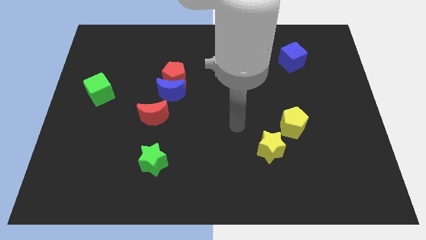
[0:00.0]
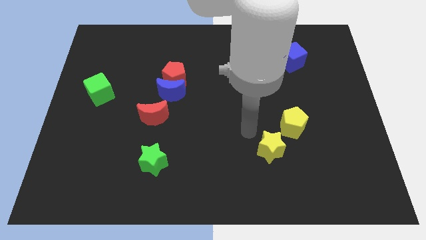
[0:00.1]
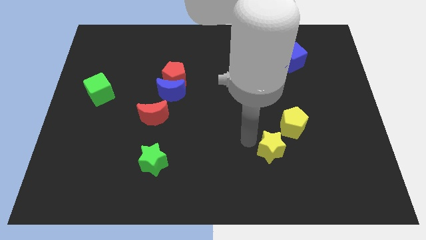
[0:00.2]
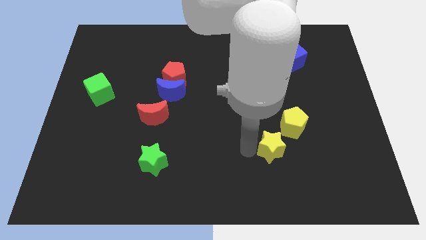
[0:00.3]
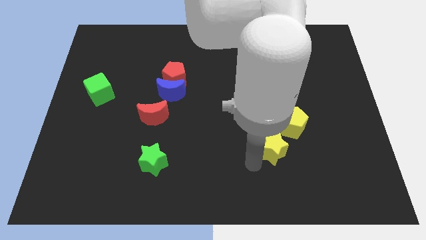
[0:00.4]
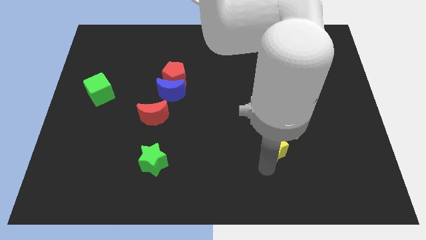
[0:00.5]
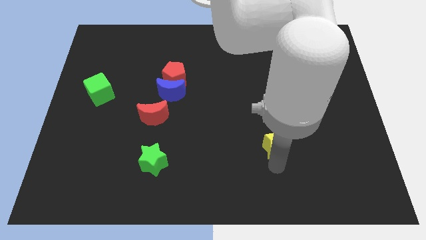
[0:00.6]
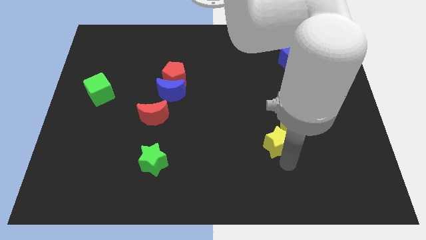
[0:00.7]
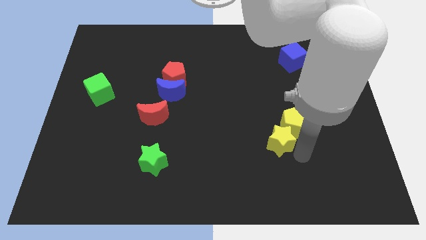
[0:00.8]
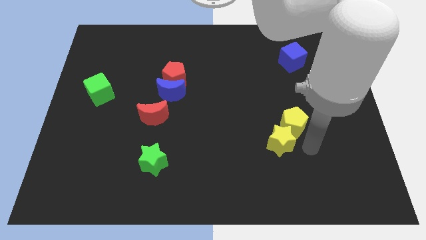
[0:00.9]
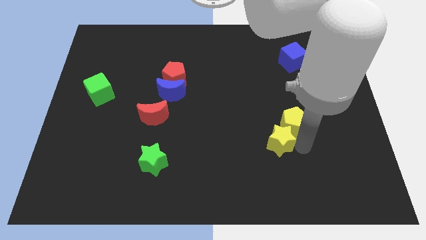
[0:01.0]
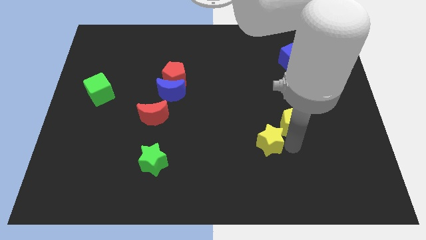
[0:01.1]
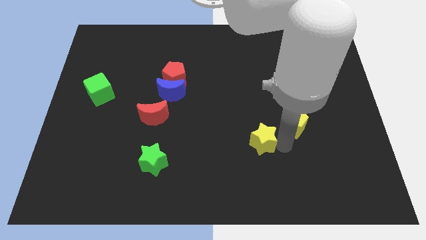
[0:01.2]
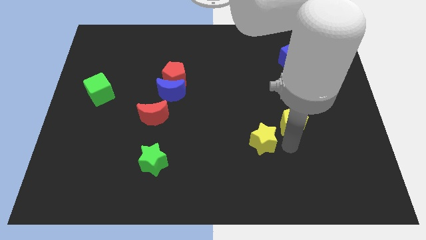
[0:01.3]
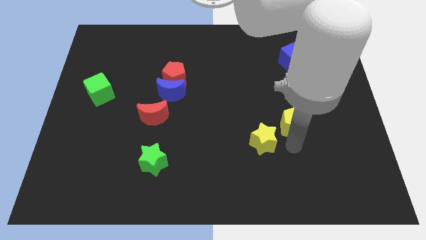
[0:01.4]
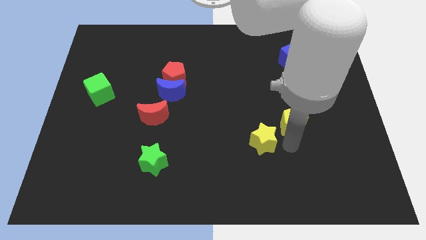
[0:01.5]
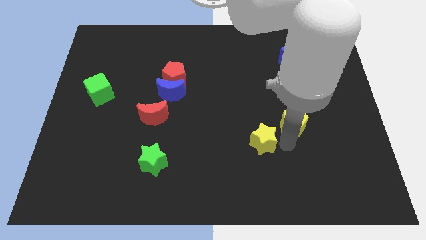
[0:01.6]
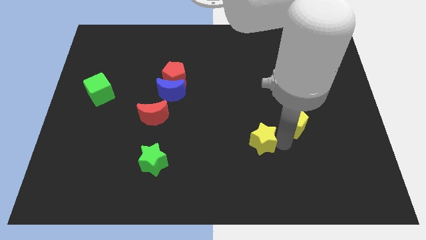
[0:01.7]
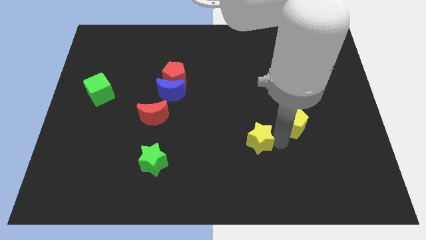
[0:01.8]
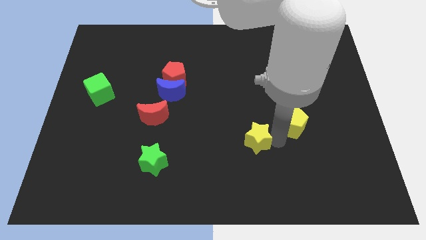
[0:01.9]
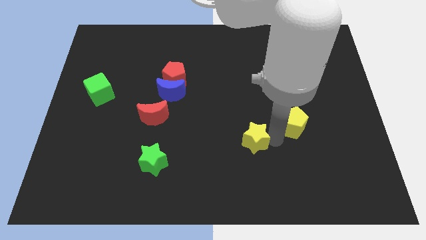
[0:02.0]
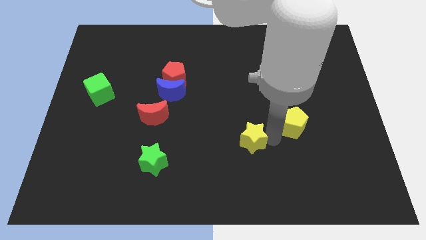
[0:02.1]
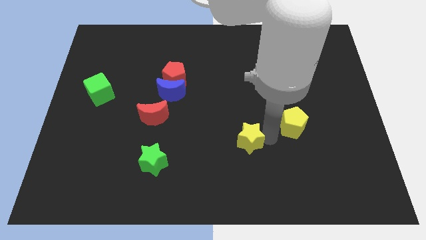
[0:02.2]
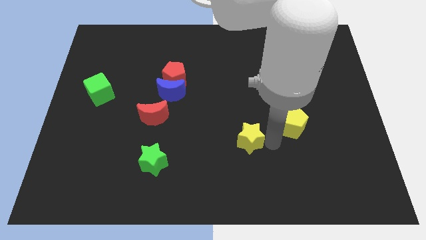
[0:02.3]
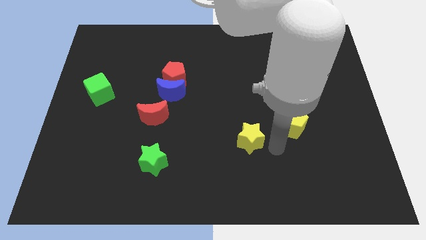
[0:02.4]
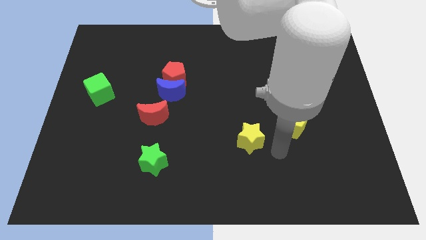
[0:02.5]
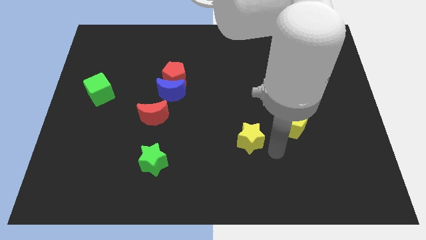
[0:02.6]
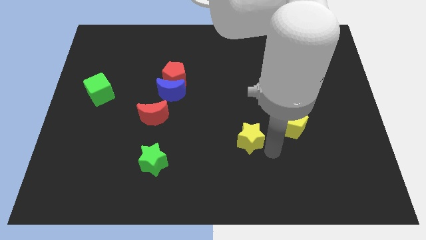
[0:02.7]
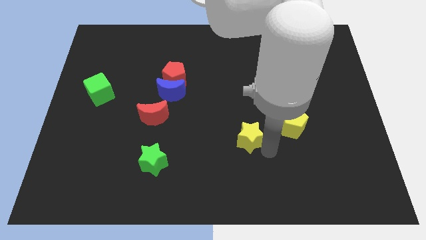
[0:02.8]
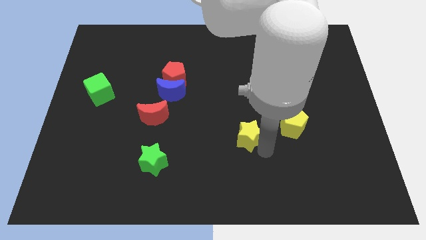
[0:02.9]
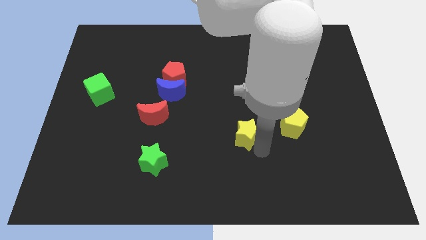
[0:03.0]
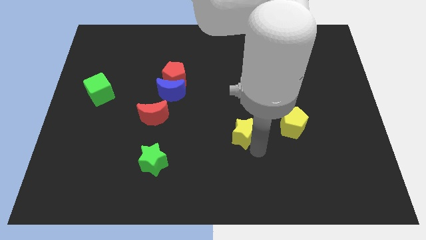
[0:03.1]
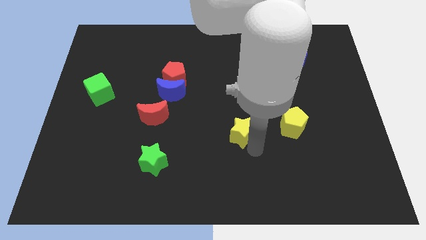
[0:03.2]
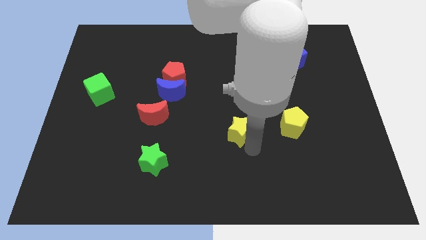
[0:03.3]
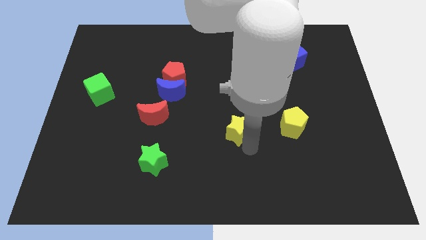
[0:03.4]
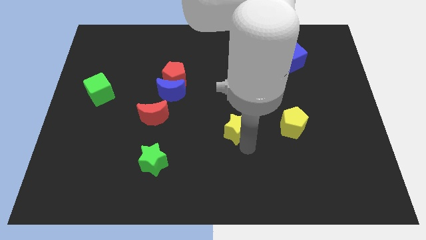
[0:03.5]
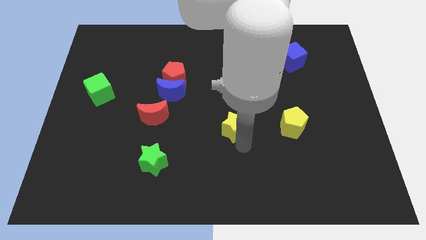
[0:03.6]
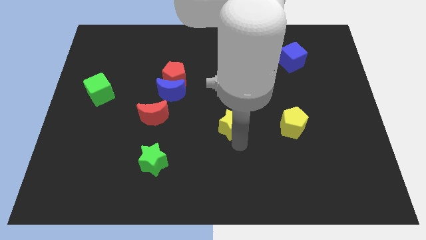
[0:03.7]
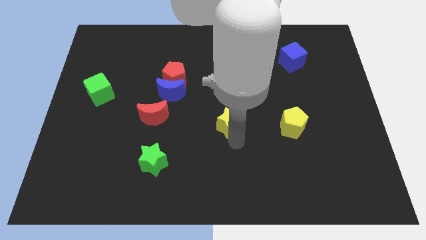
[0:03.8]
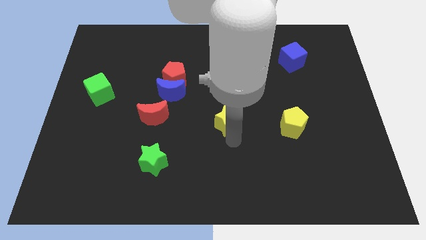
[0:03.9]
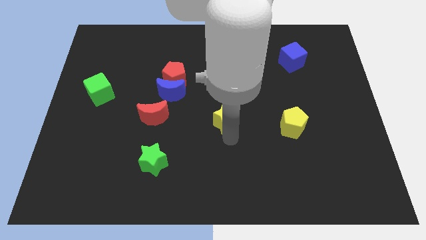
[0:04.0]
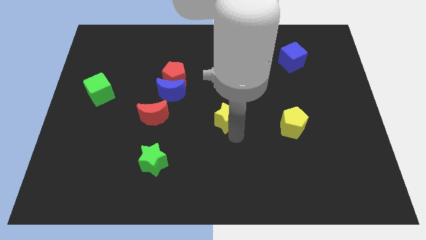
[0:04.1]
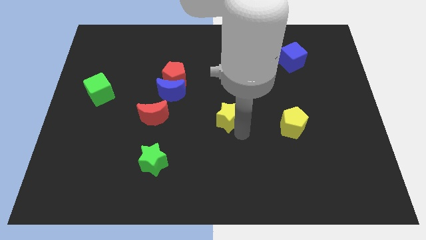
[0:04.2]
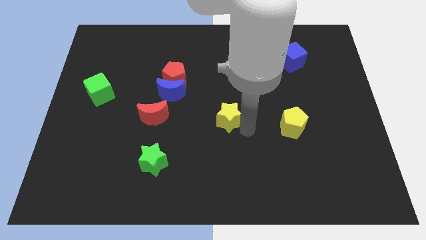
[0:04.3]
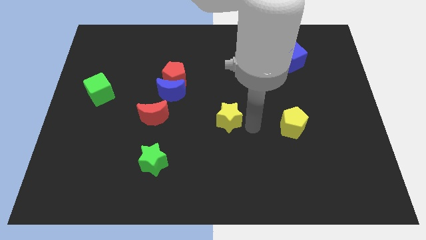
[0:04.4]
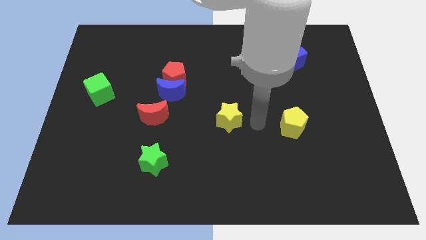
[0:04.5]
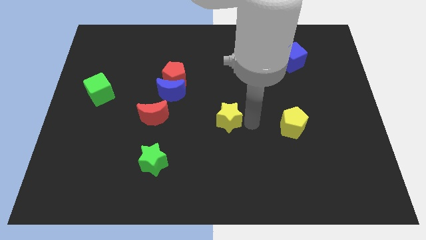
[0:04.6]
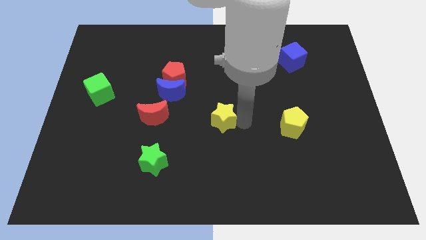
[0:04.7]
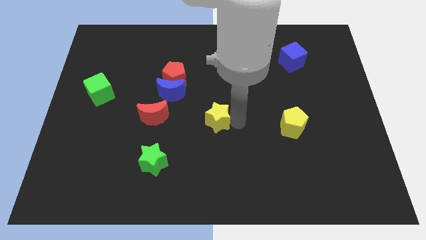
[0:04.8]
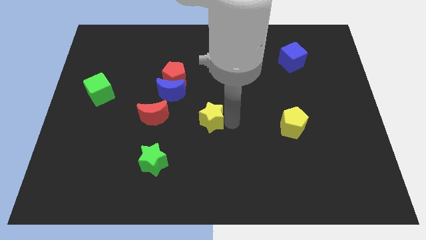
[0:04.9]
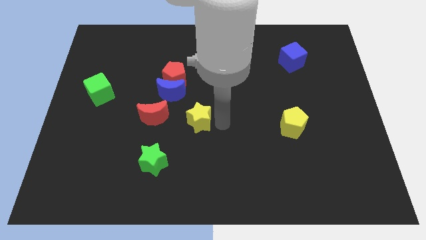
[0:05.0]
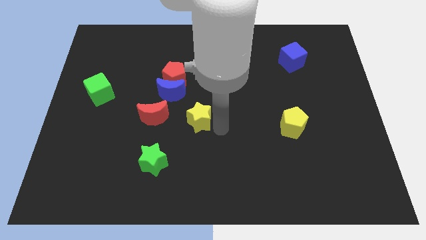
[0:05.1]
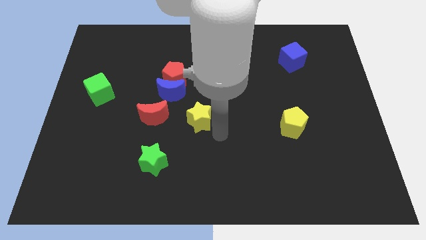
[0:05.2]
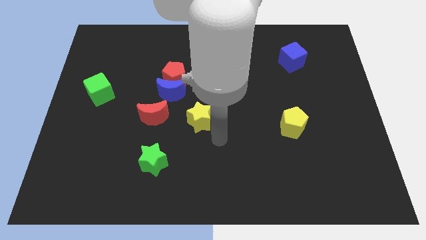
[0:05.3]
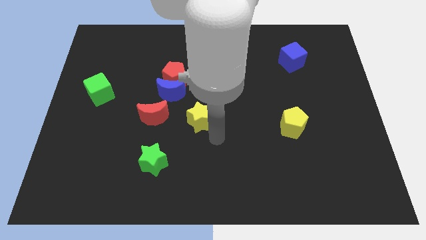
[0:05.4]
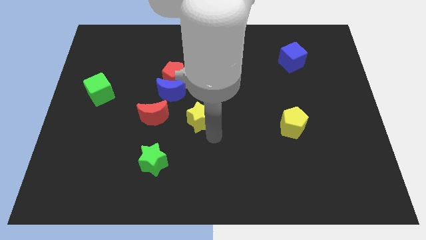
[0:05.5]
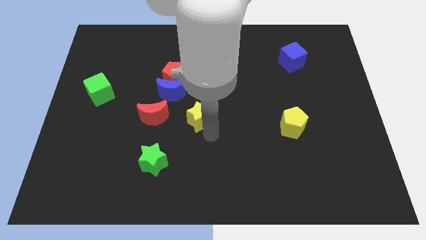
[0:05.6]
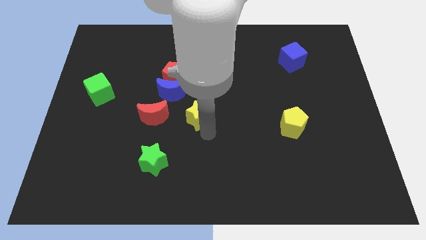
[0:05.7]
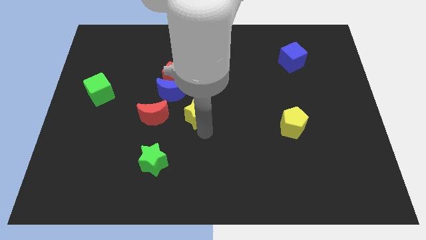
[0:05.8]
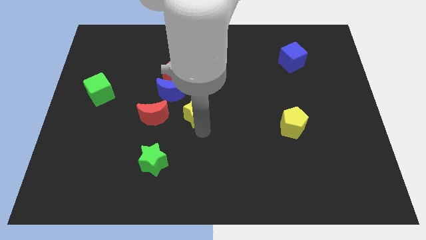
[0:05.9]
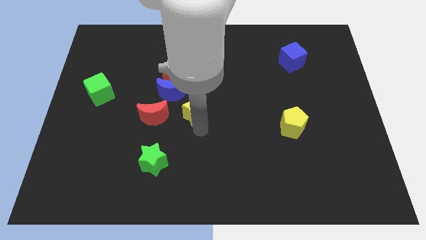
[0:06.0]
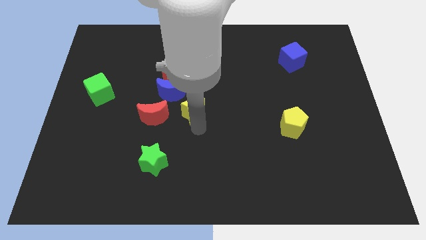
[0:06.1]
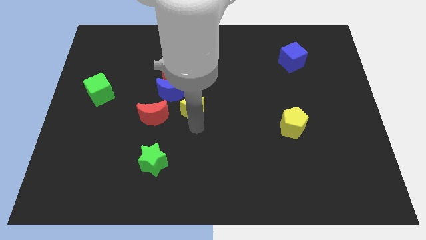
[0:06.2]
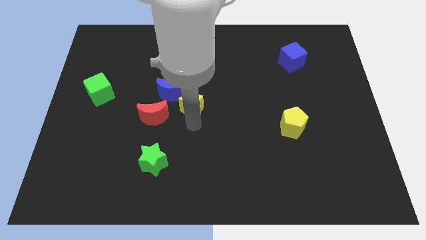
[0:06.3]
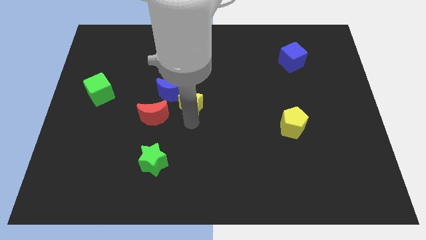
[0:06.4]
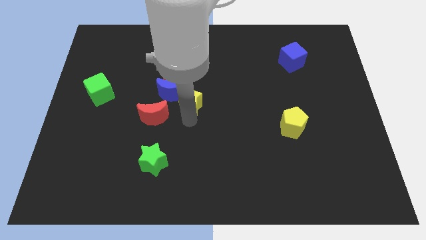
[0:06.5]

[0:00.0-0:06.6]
move the yellow star next to the blue moon
